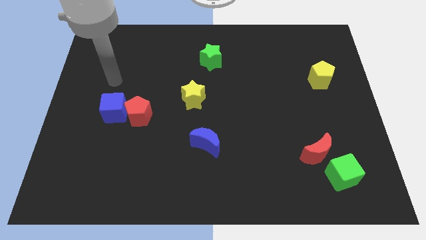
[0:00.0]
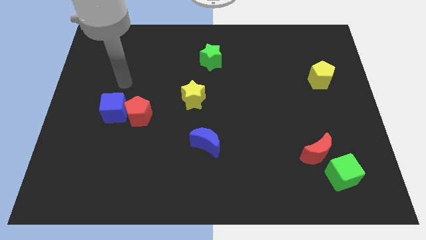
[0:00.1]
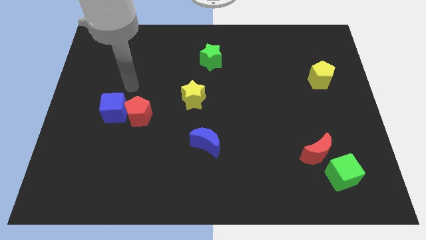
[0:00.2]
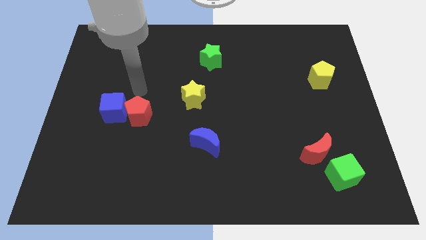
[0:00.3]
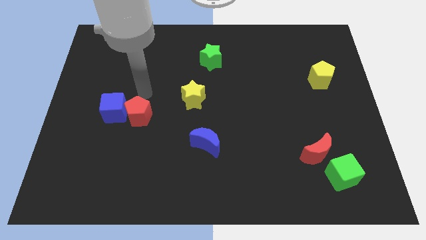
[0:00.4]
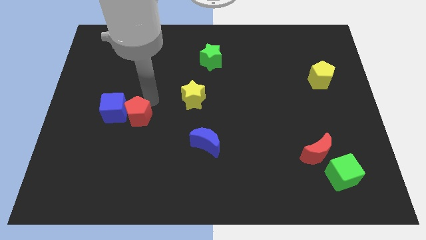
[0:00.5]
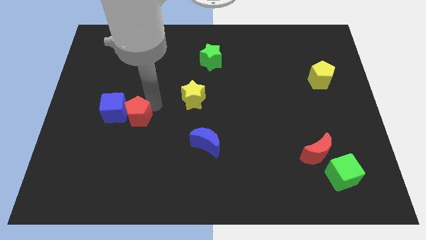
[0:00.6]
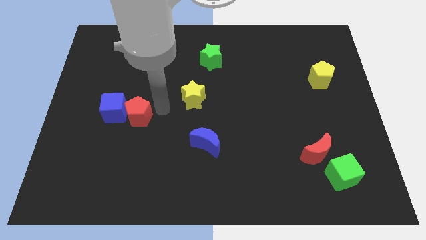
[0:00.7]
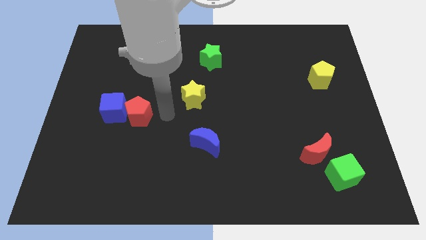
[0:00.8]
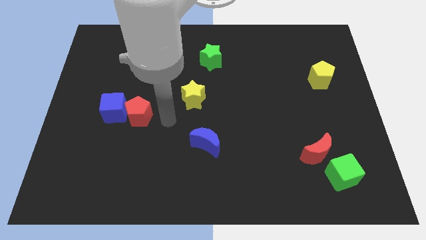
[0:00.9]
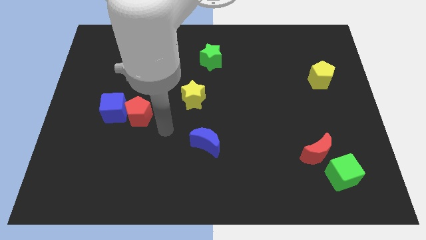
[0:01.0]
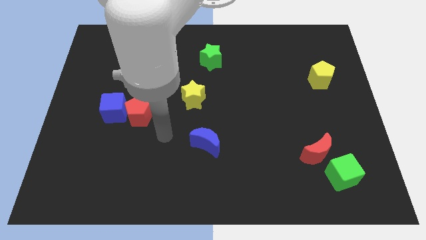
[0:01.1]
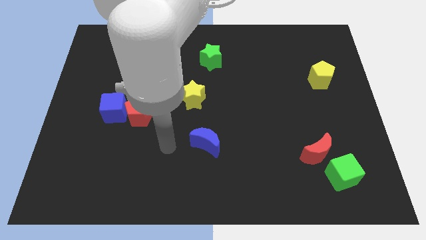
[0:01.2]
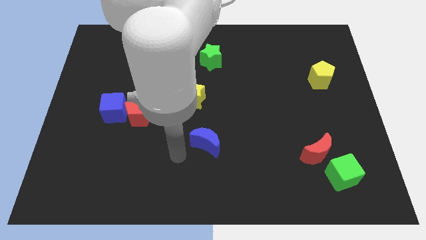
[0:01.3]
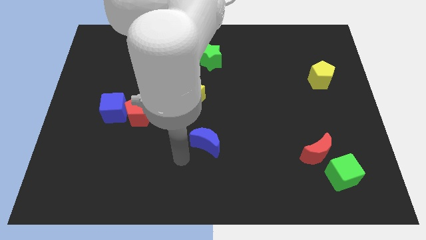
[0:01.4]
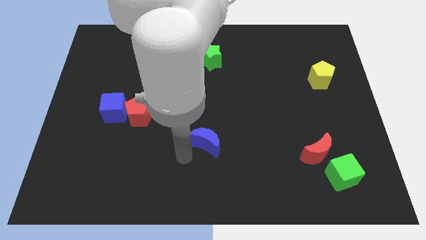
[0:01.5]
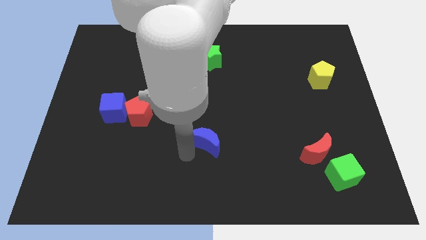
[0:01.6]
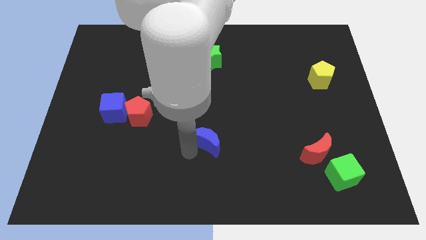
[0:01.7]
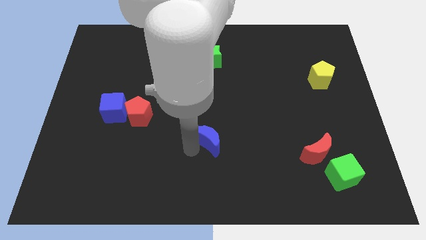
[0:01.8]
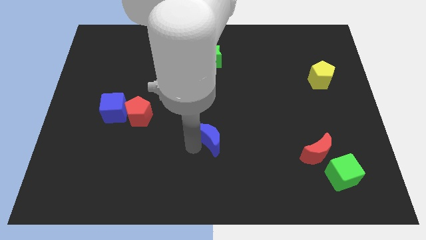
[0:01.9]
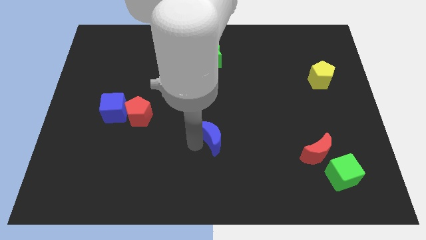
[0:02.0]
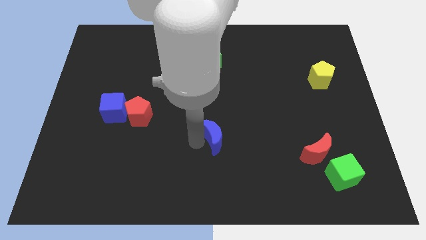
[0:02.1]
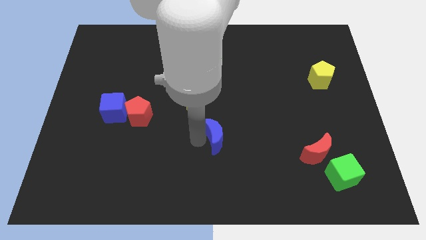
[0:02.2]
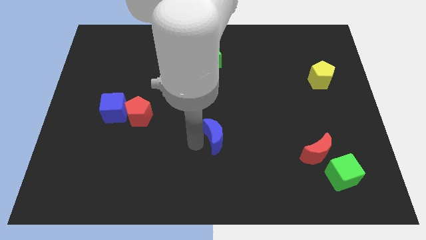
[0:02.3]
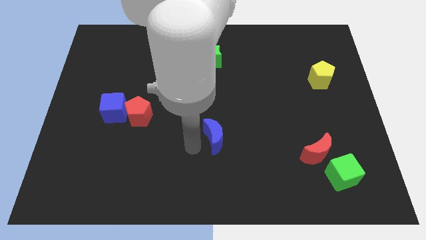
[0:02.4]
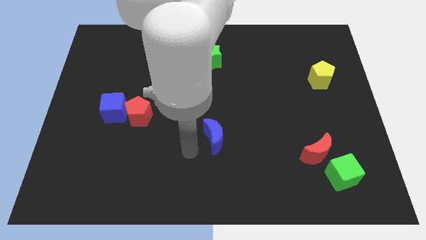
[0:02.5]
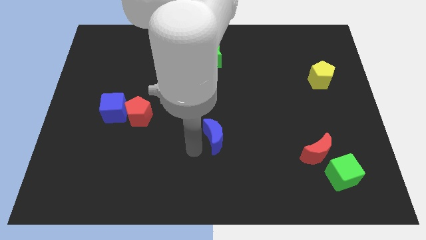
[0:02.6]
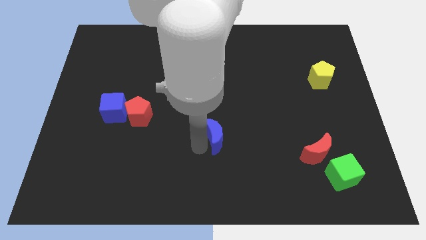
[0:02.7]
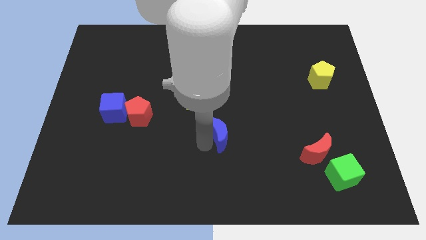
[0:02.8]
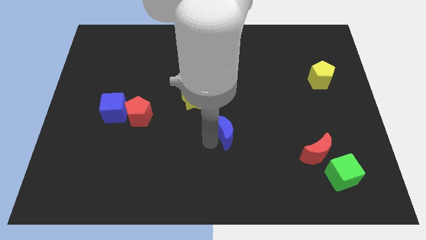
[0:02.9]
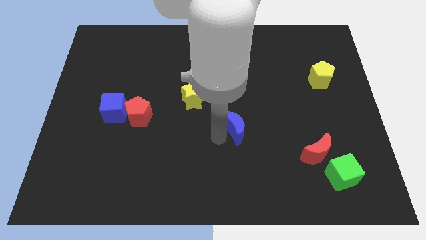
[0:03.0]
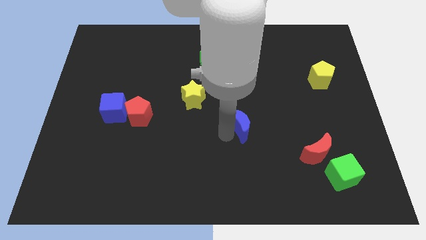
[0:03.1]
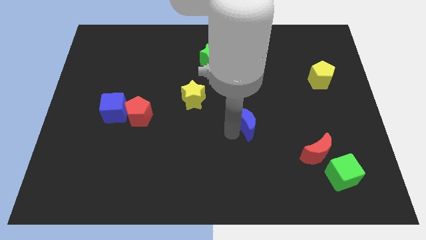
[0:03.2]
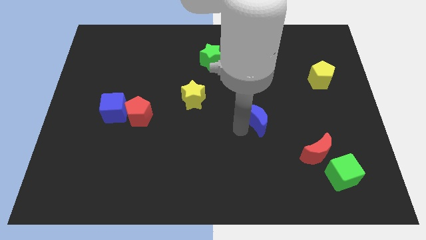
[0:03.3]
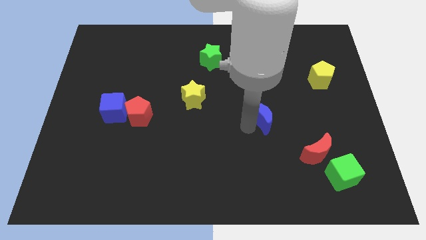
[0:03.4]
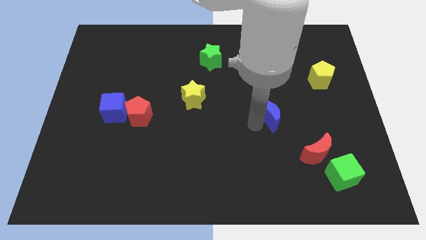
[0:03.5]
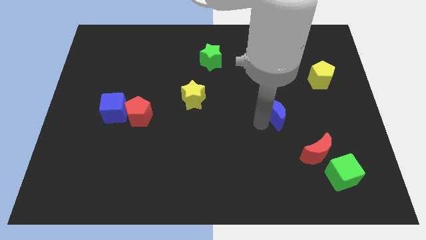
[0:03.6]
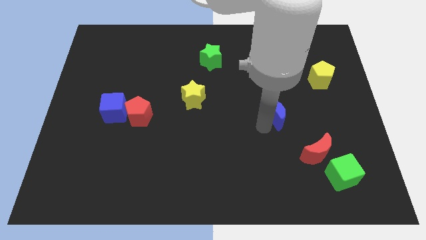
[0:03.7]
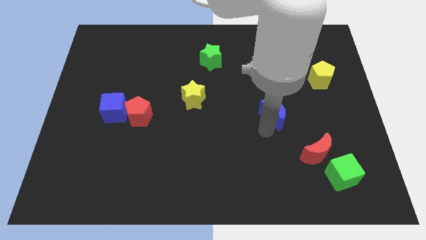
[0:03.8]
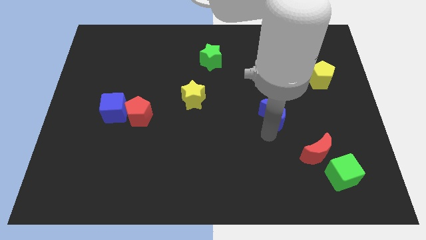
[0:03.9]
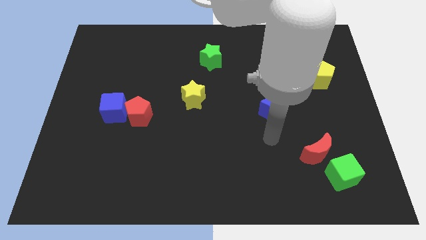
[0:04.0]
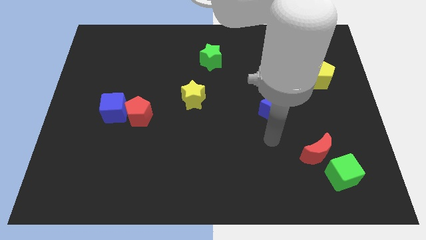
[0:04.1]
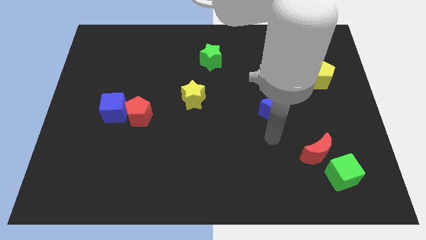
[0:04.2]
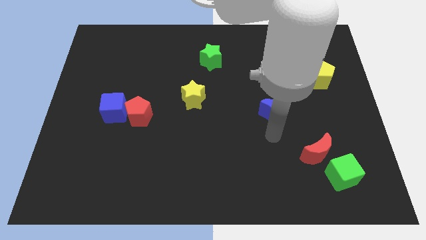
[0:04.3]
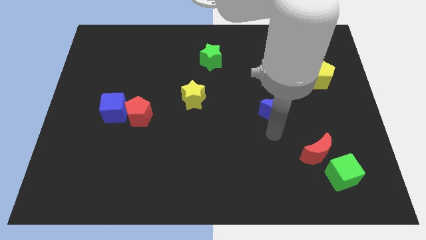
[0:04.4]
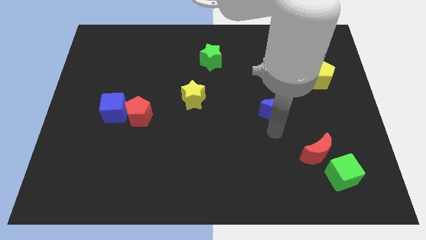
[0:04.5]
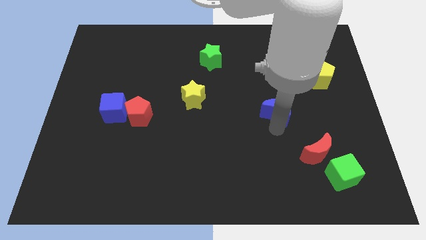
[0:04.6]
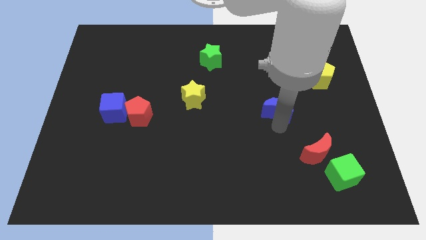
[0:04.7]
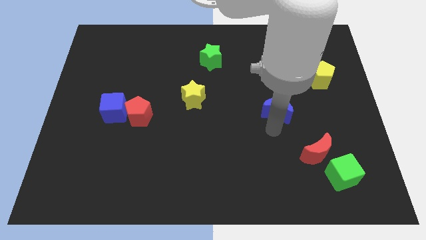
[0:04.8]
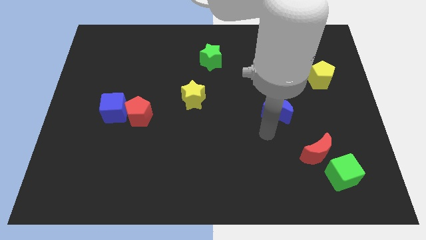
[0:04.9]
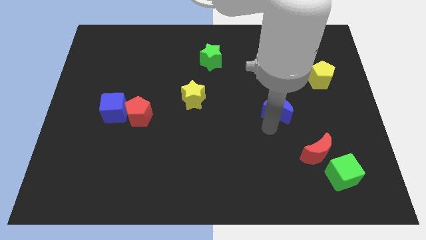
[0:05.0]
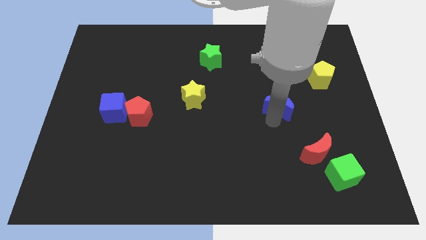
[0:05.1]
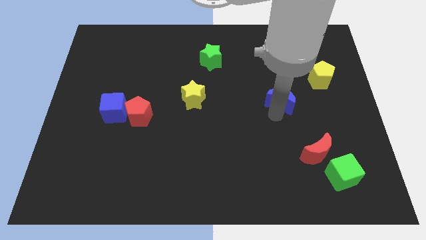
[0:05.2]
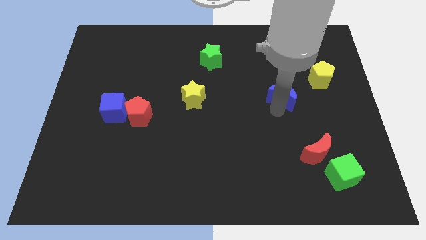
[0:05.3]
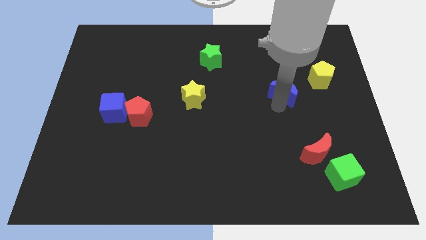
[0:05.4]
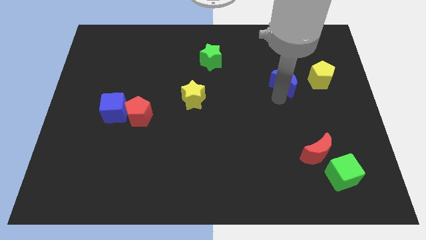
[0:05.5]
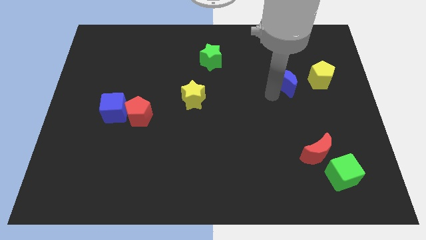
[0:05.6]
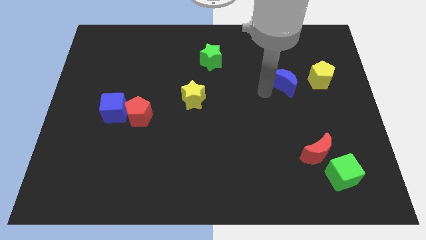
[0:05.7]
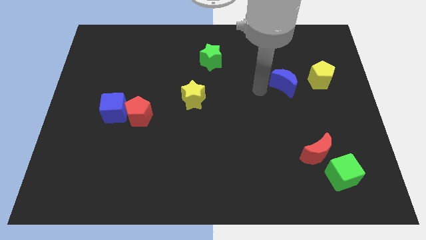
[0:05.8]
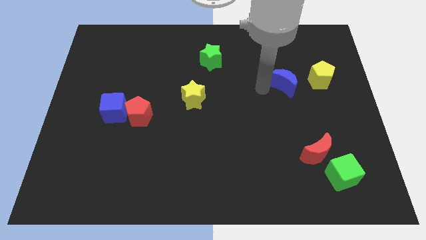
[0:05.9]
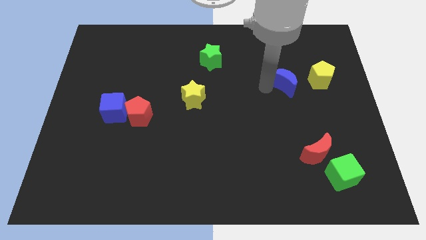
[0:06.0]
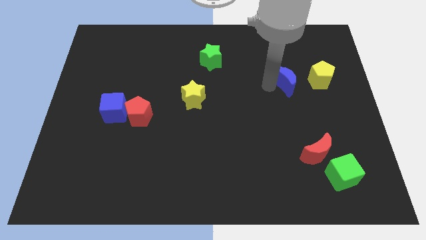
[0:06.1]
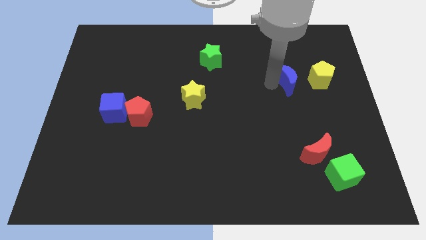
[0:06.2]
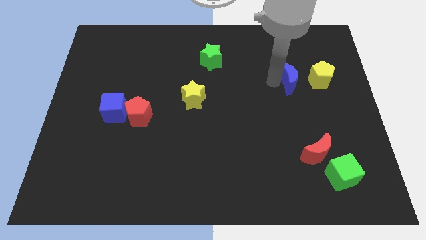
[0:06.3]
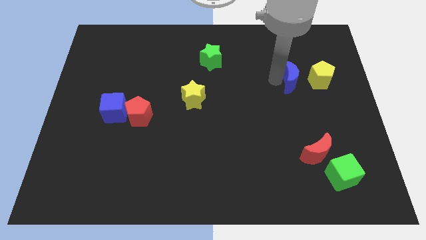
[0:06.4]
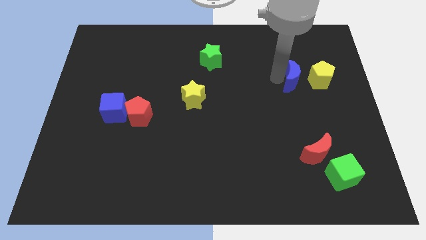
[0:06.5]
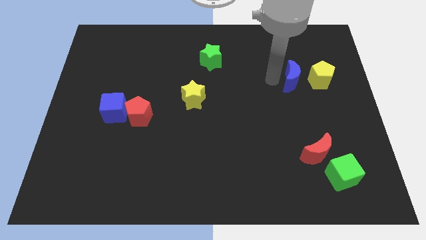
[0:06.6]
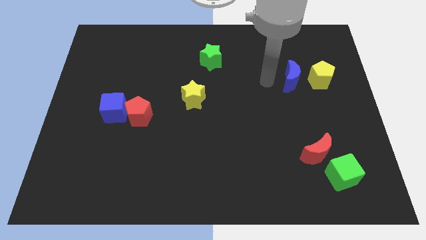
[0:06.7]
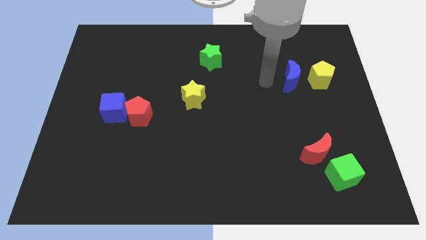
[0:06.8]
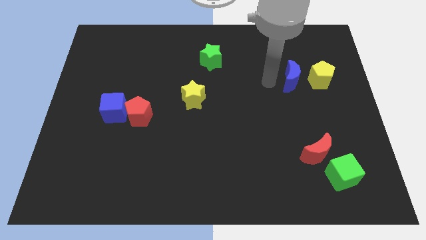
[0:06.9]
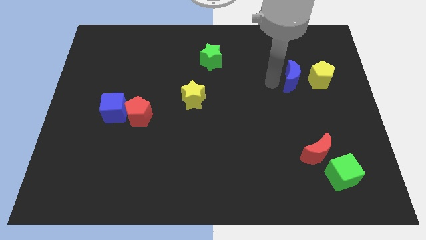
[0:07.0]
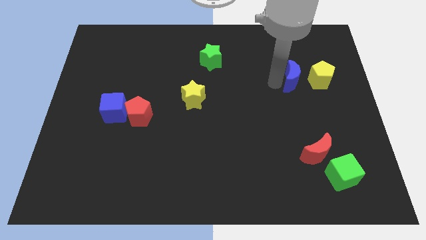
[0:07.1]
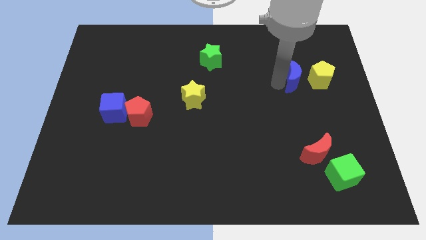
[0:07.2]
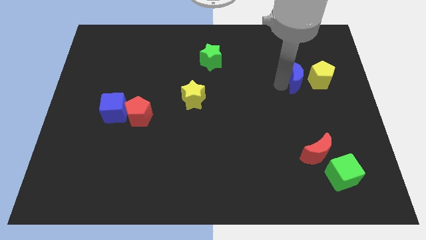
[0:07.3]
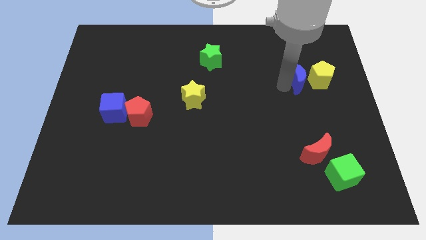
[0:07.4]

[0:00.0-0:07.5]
move the blue moon to the yellow pentagon
